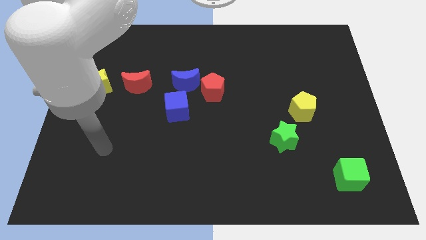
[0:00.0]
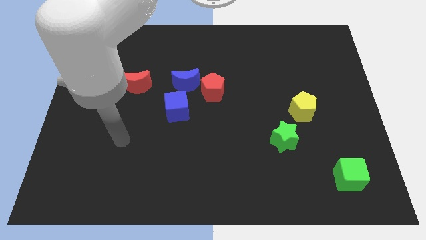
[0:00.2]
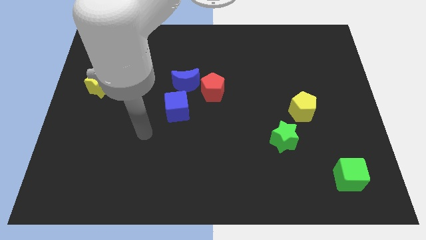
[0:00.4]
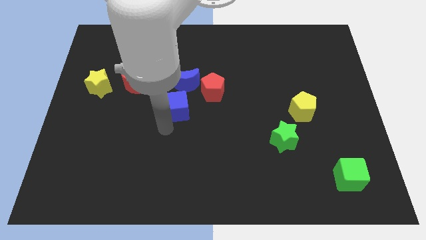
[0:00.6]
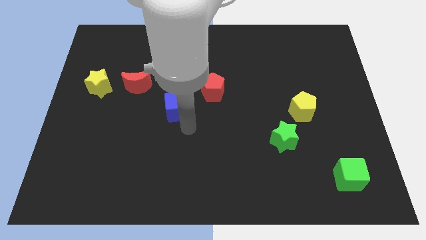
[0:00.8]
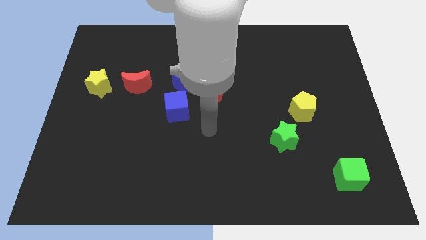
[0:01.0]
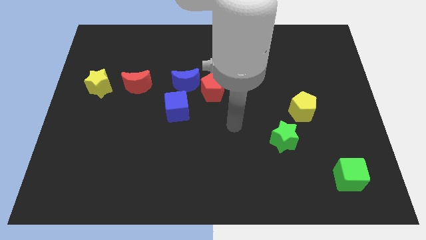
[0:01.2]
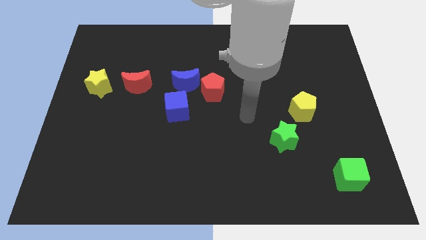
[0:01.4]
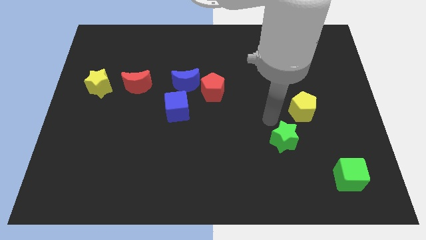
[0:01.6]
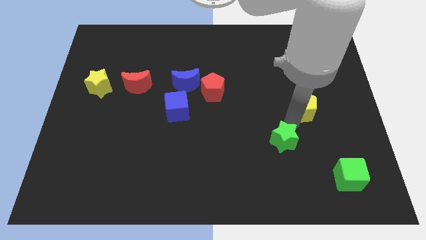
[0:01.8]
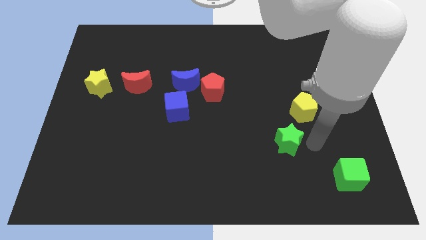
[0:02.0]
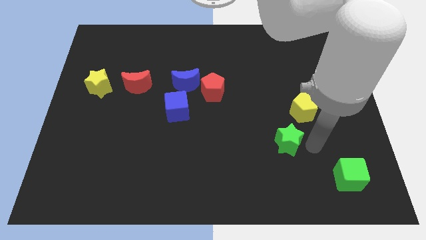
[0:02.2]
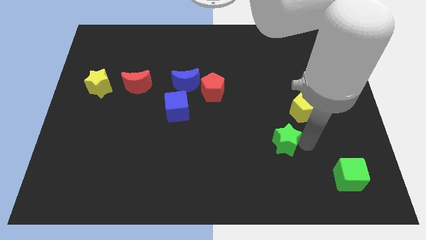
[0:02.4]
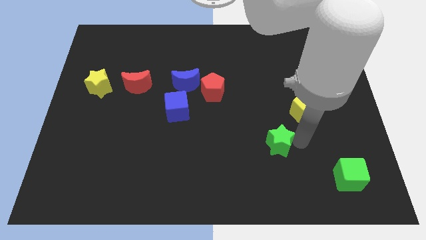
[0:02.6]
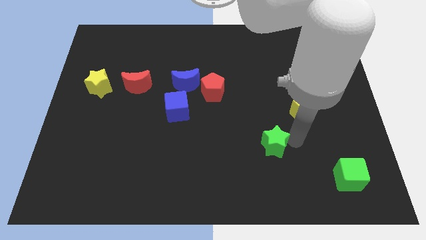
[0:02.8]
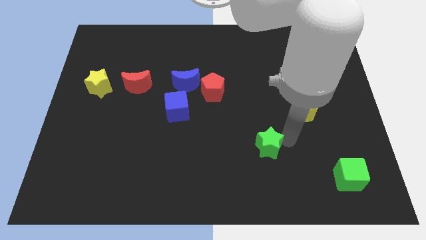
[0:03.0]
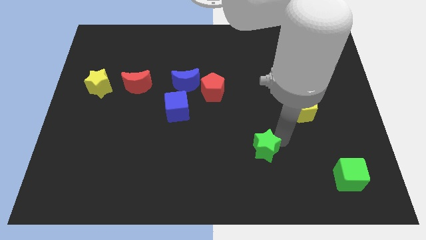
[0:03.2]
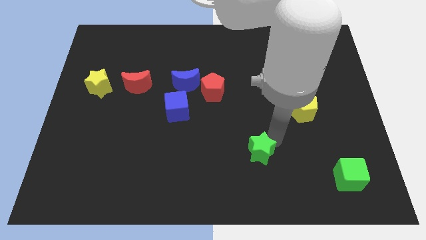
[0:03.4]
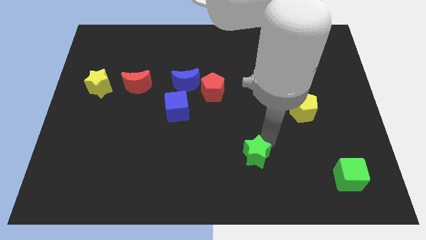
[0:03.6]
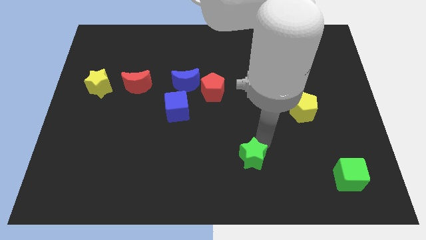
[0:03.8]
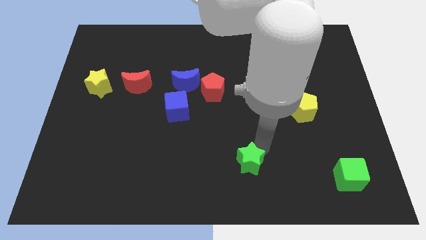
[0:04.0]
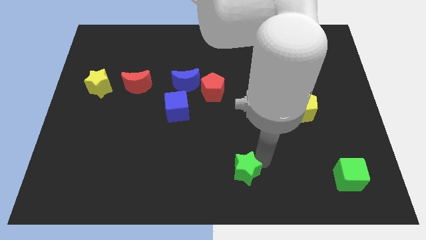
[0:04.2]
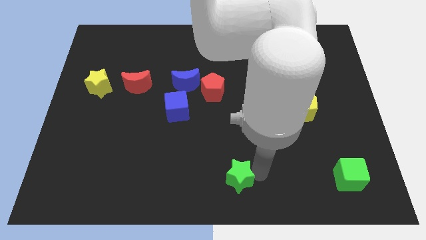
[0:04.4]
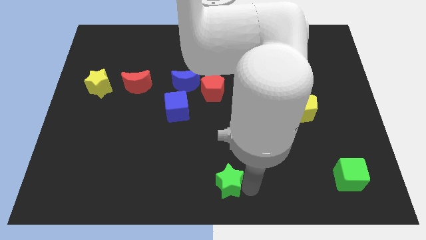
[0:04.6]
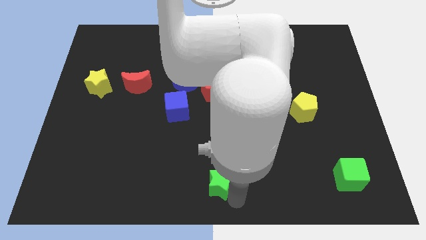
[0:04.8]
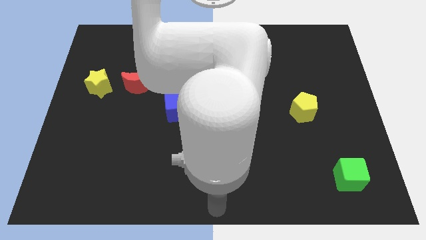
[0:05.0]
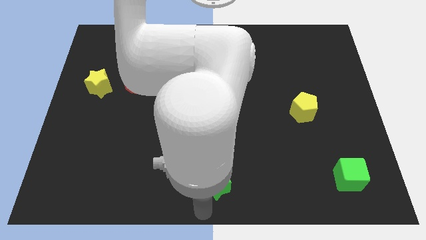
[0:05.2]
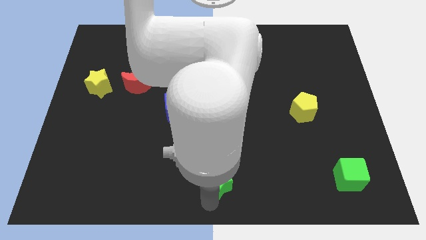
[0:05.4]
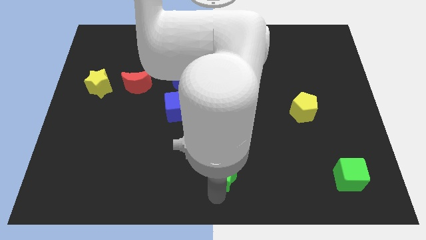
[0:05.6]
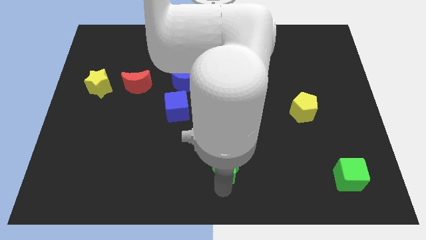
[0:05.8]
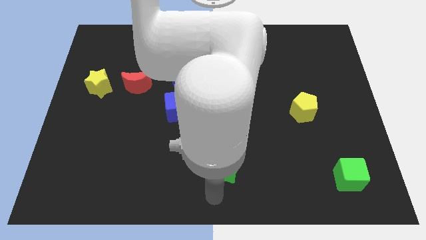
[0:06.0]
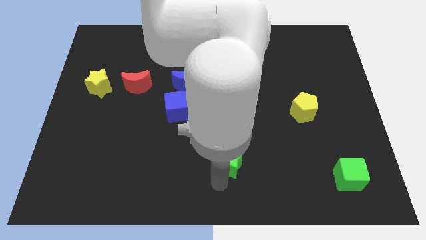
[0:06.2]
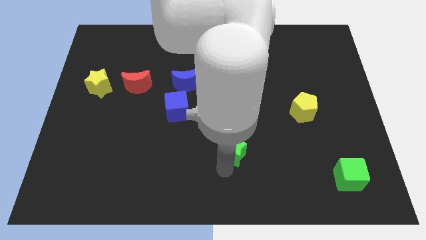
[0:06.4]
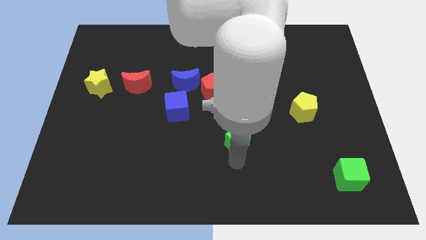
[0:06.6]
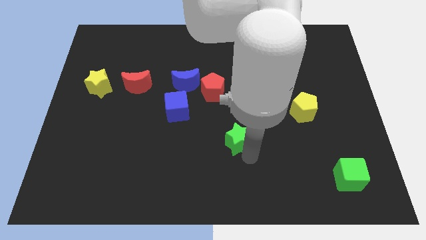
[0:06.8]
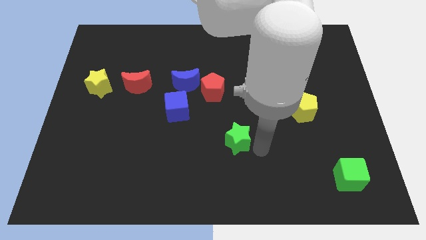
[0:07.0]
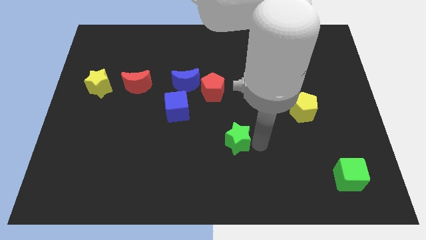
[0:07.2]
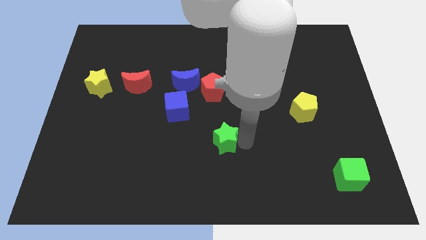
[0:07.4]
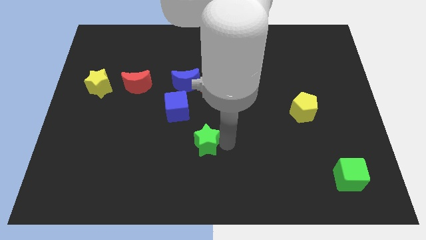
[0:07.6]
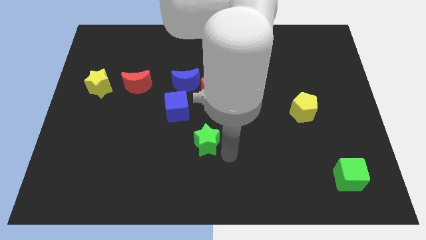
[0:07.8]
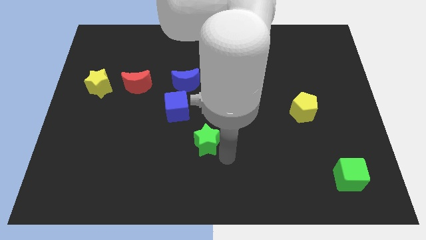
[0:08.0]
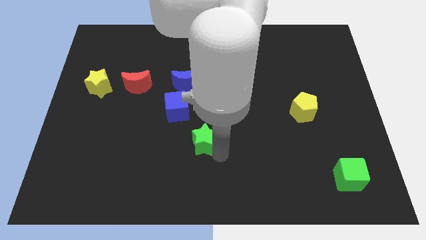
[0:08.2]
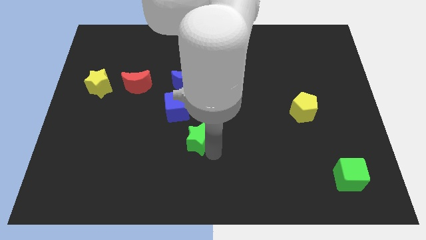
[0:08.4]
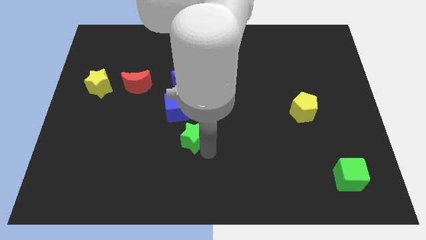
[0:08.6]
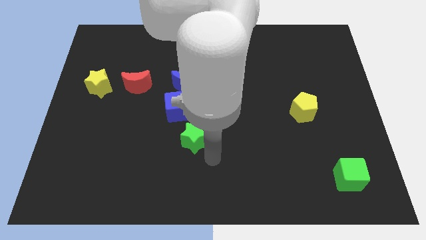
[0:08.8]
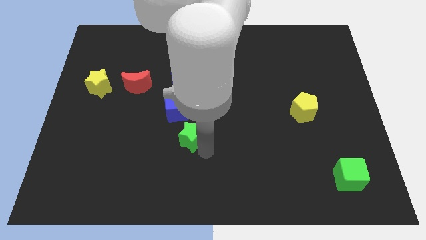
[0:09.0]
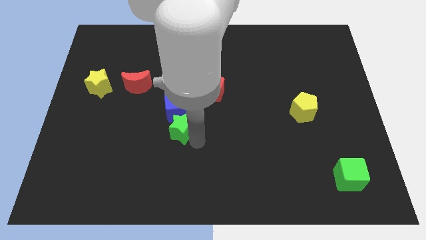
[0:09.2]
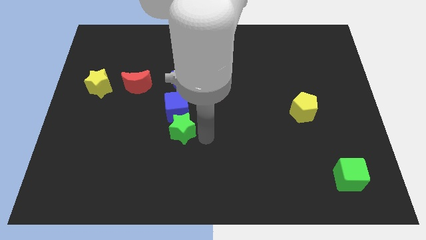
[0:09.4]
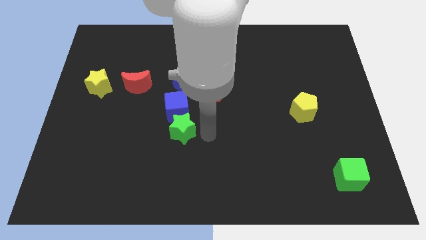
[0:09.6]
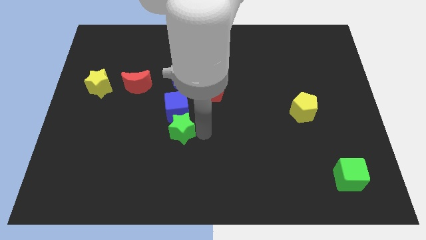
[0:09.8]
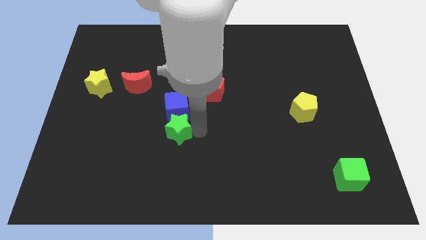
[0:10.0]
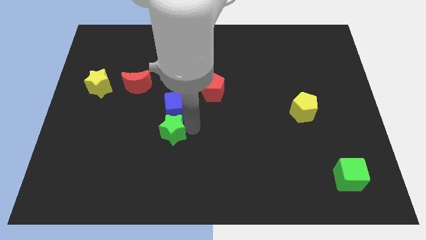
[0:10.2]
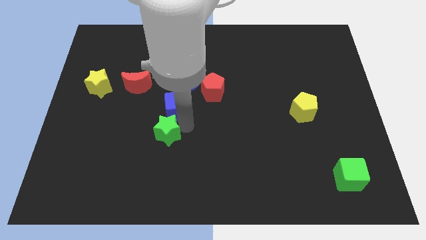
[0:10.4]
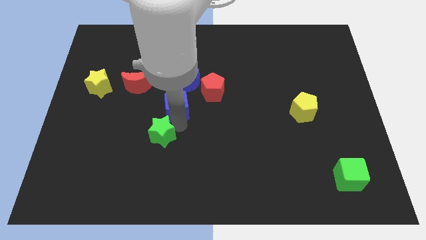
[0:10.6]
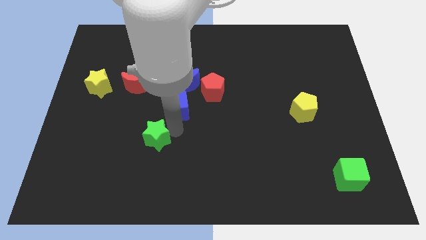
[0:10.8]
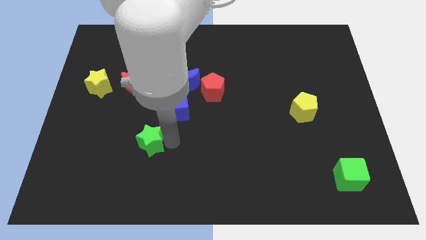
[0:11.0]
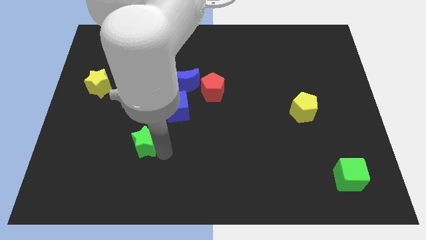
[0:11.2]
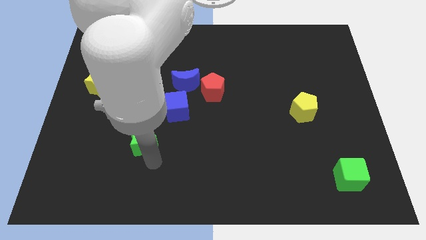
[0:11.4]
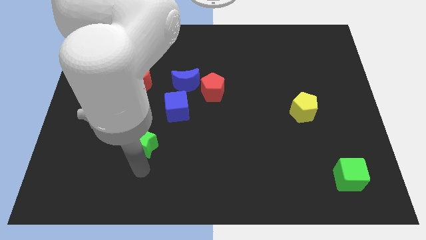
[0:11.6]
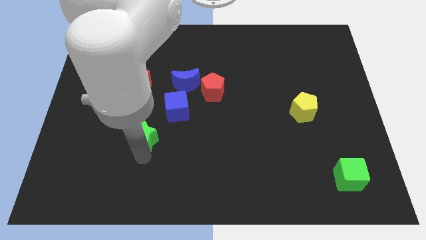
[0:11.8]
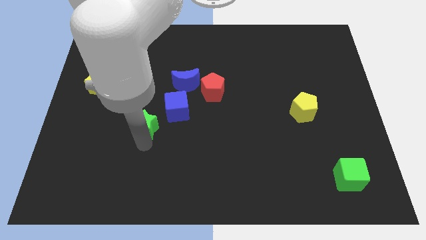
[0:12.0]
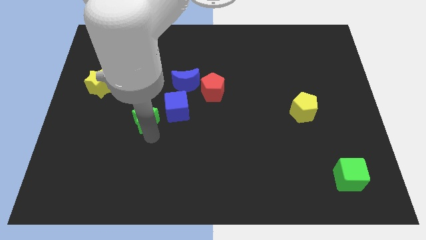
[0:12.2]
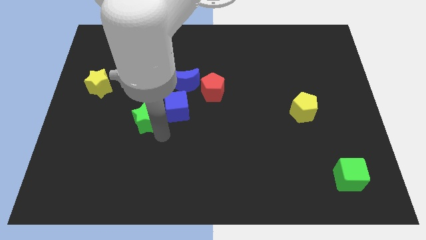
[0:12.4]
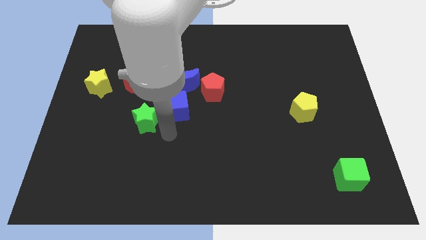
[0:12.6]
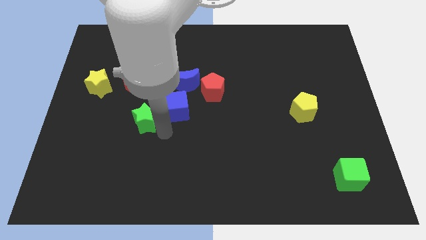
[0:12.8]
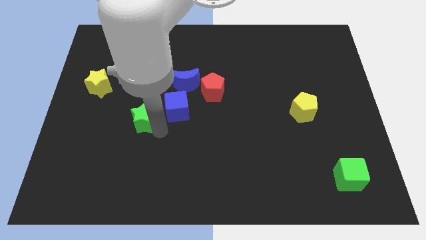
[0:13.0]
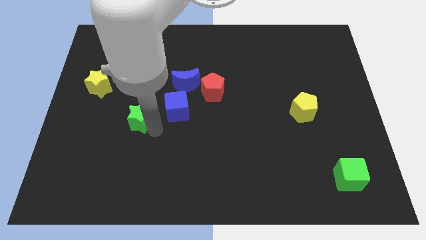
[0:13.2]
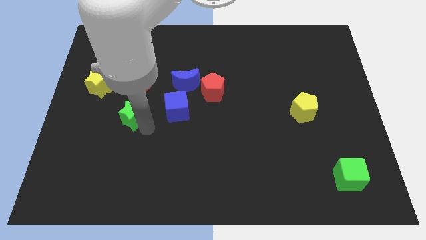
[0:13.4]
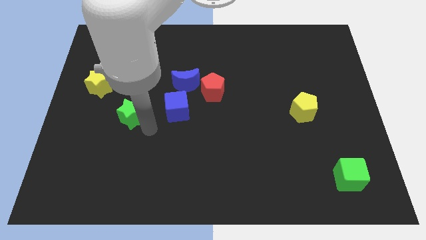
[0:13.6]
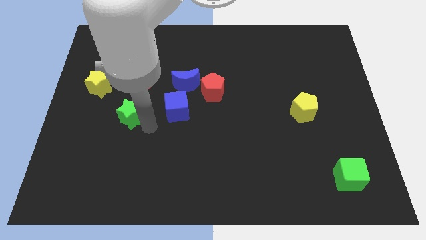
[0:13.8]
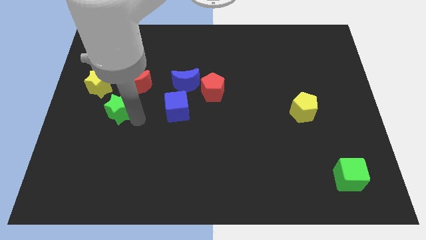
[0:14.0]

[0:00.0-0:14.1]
slide the green star to the bottom left of the red moon
